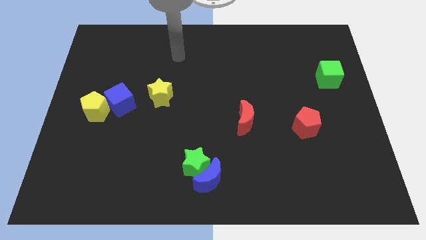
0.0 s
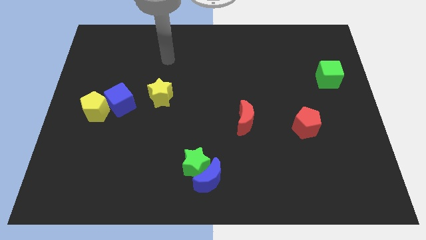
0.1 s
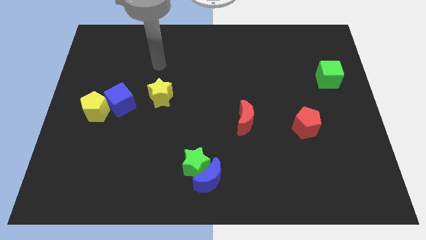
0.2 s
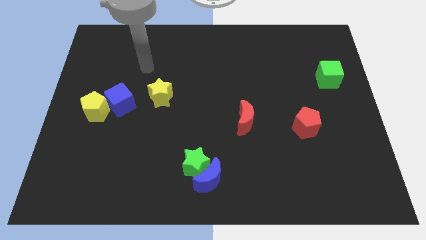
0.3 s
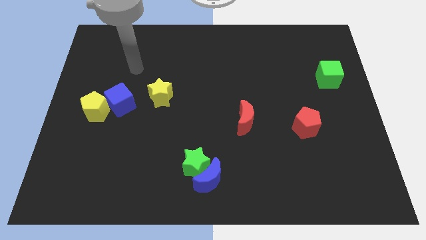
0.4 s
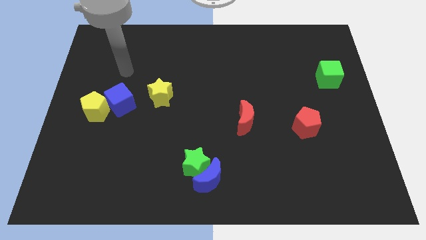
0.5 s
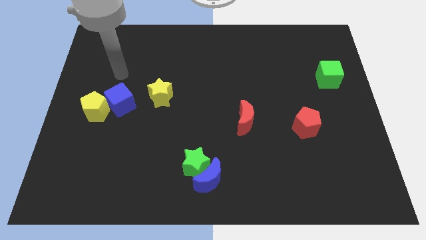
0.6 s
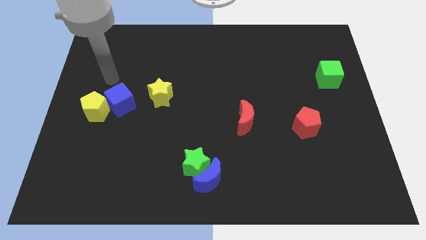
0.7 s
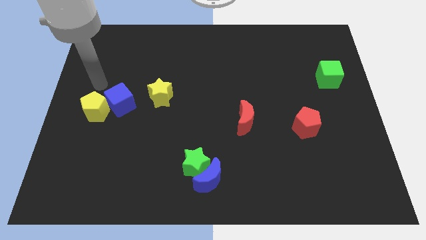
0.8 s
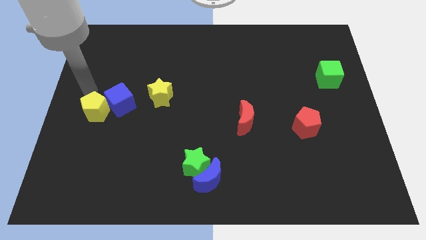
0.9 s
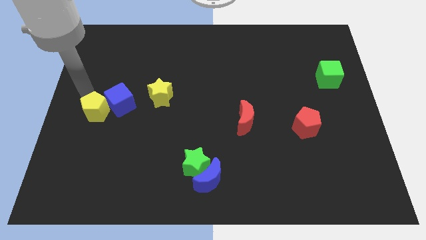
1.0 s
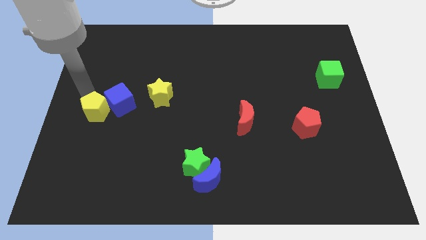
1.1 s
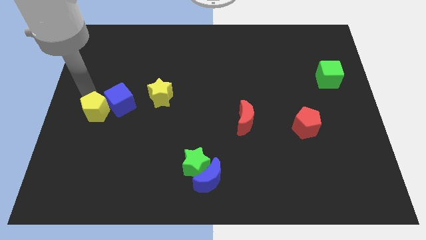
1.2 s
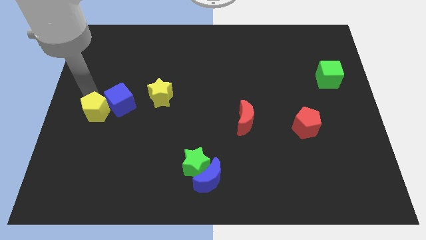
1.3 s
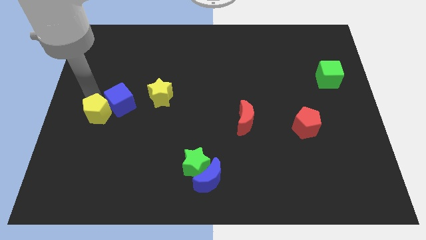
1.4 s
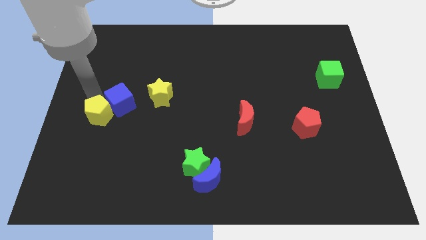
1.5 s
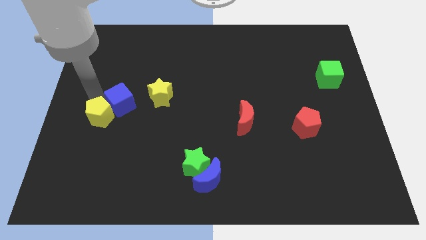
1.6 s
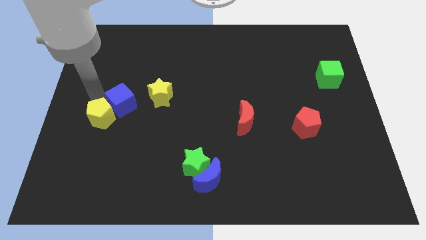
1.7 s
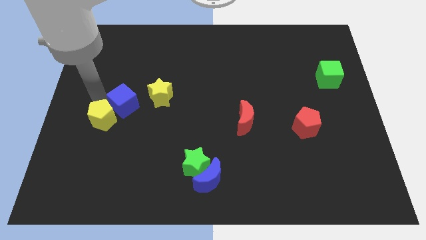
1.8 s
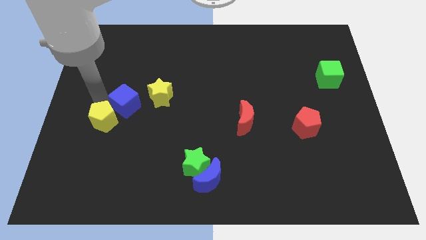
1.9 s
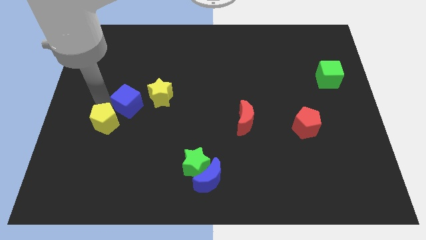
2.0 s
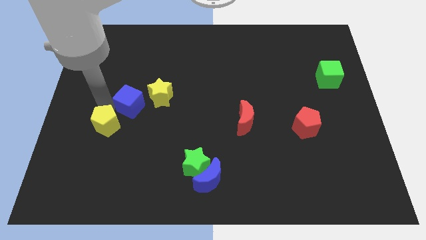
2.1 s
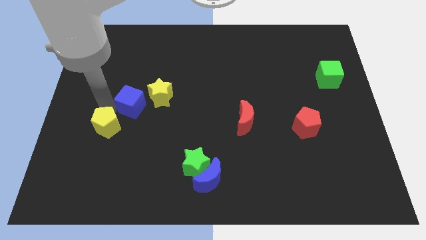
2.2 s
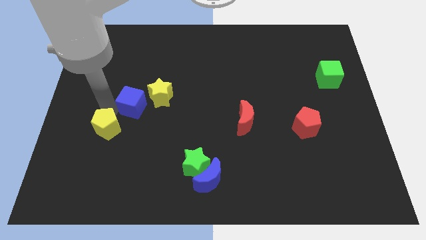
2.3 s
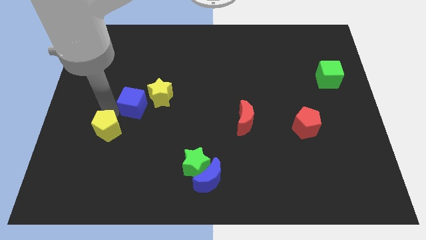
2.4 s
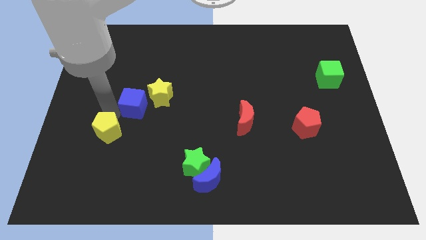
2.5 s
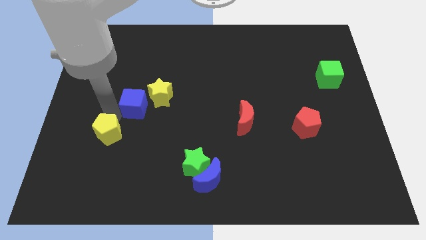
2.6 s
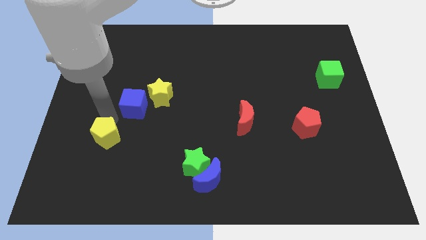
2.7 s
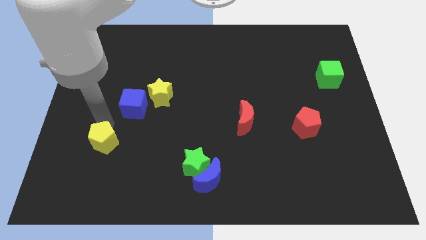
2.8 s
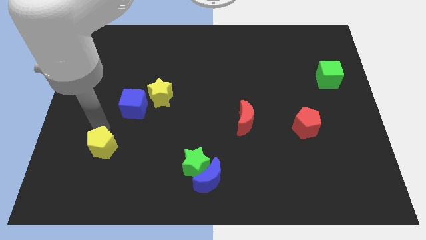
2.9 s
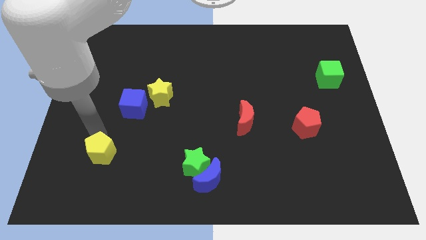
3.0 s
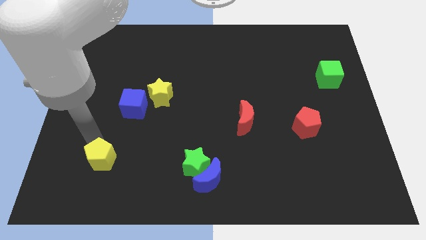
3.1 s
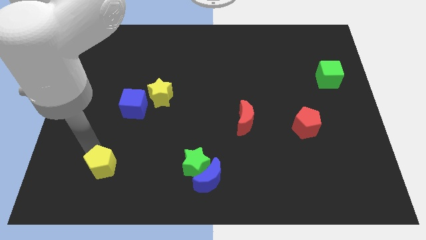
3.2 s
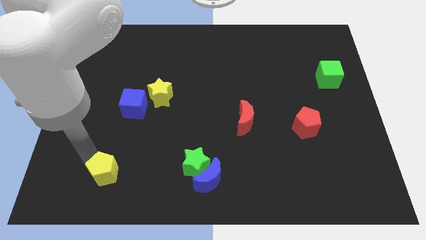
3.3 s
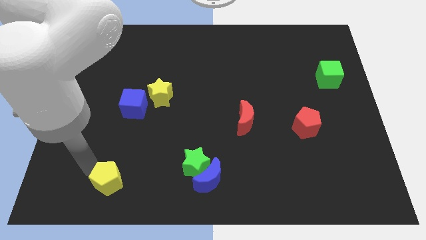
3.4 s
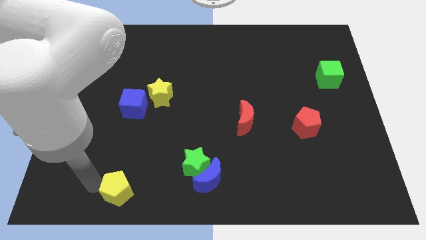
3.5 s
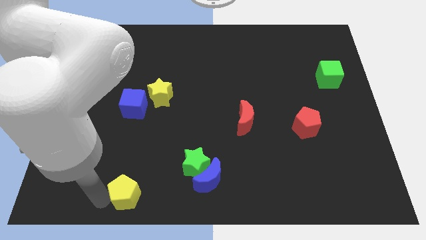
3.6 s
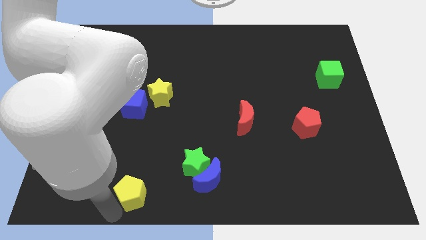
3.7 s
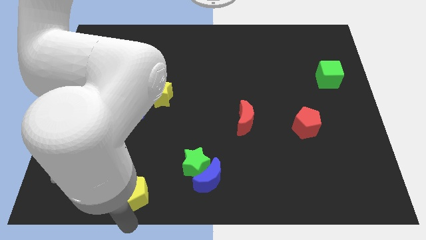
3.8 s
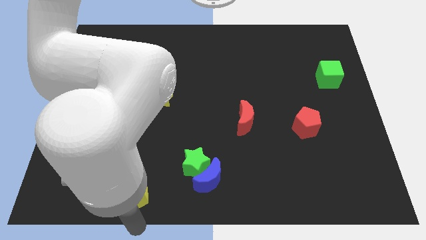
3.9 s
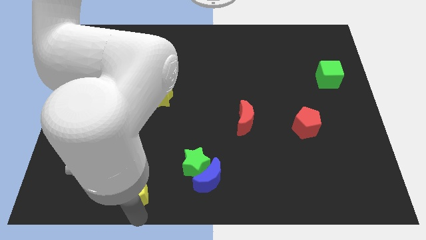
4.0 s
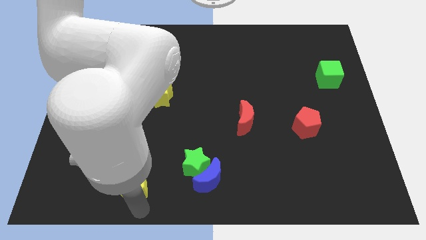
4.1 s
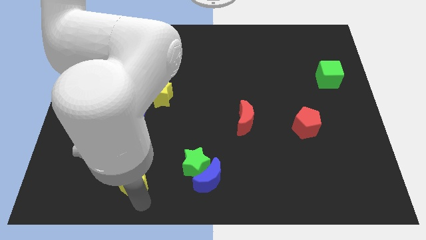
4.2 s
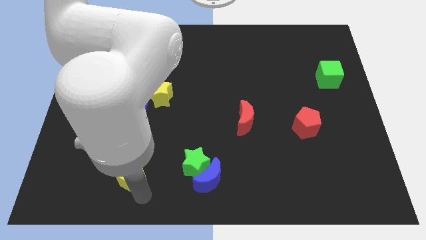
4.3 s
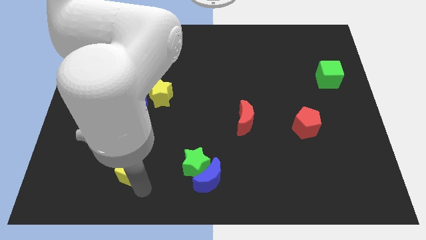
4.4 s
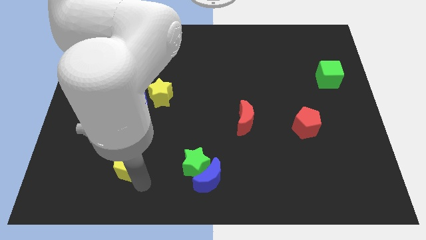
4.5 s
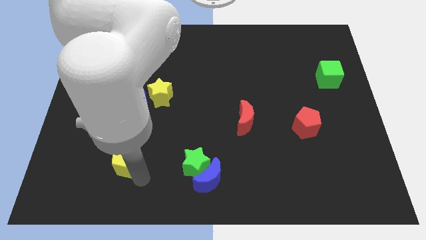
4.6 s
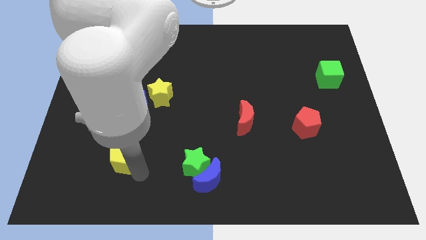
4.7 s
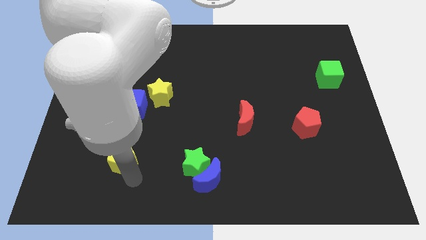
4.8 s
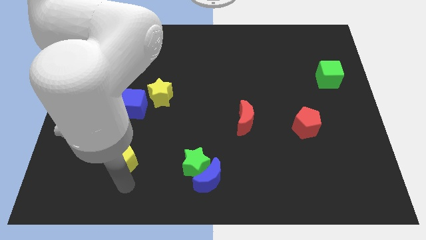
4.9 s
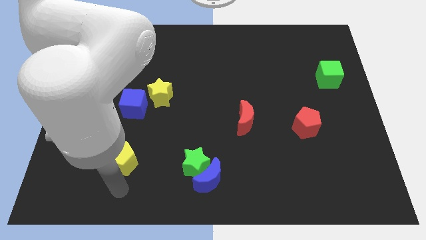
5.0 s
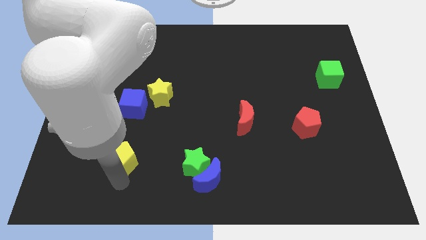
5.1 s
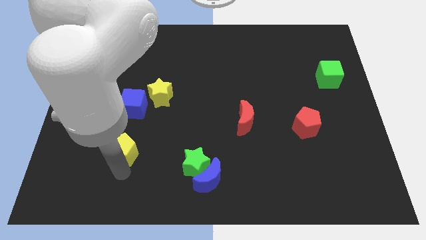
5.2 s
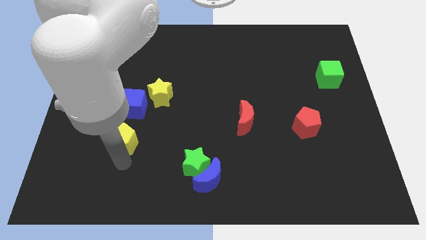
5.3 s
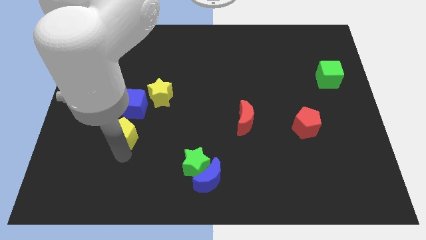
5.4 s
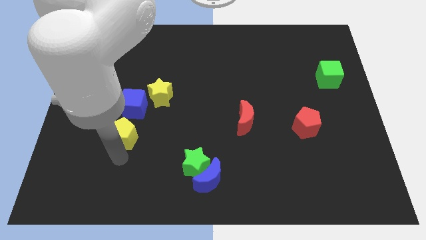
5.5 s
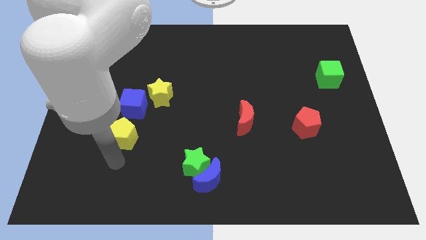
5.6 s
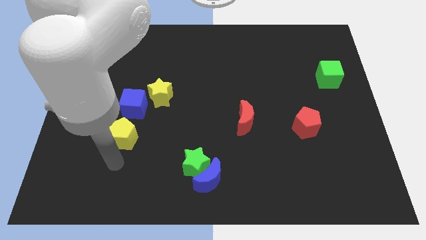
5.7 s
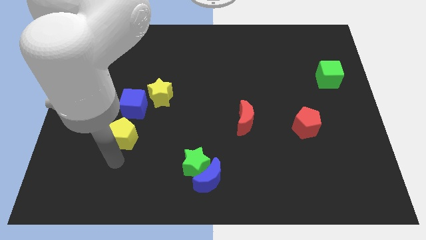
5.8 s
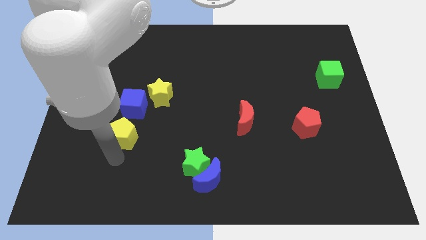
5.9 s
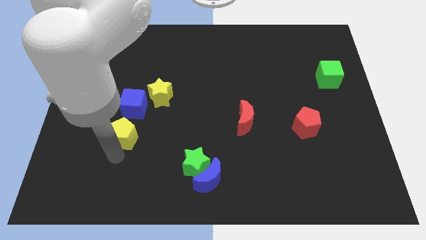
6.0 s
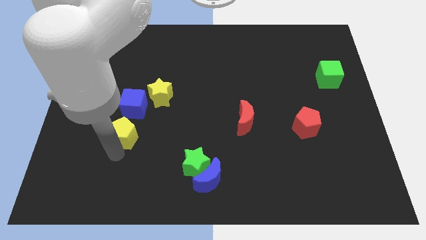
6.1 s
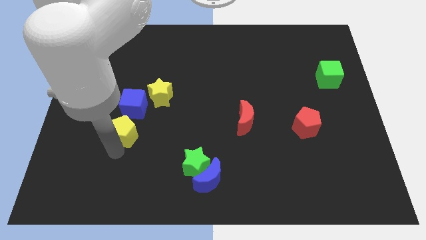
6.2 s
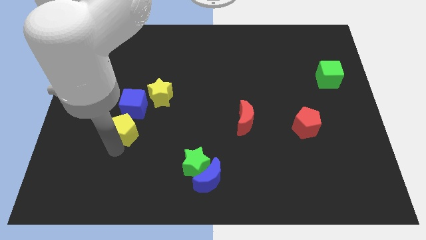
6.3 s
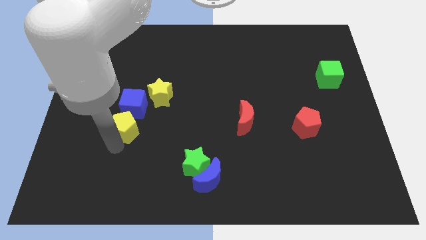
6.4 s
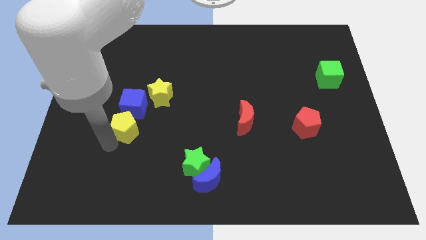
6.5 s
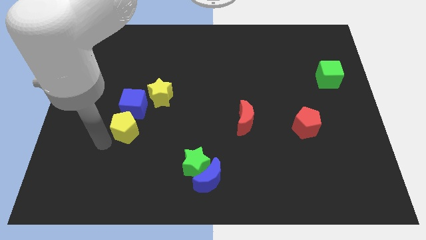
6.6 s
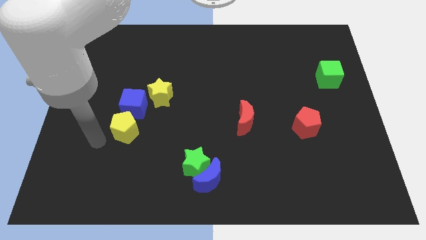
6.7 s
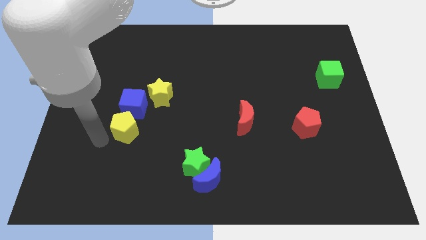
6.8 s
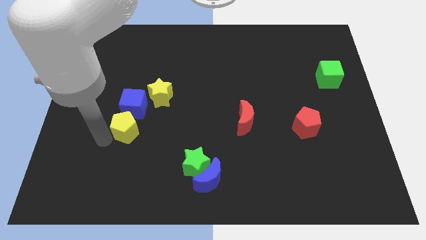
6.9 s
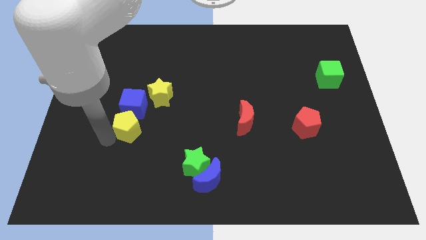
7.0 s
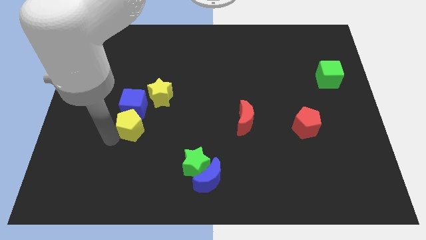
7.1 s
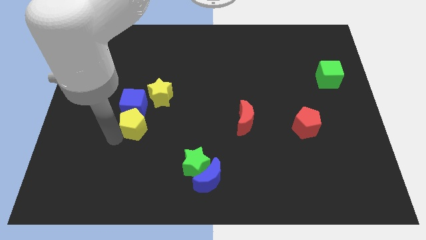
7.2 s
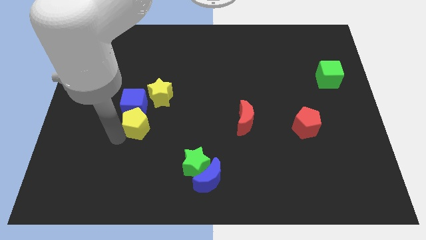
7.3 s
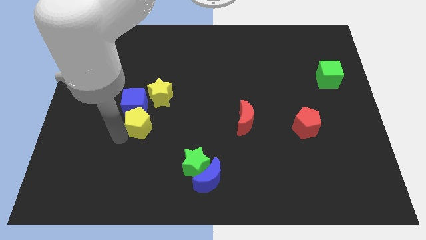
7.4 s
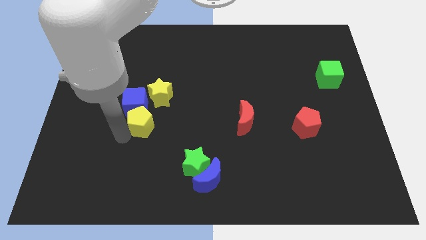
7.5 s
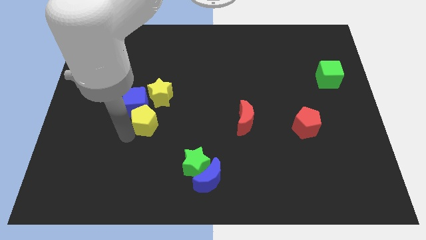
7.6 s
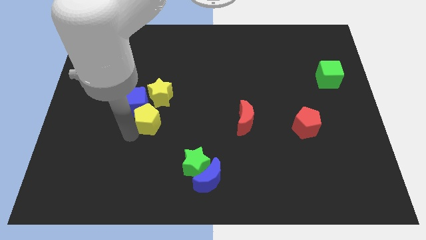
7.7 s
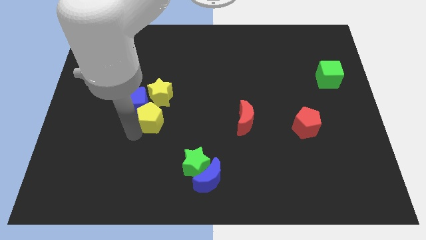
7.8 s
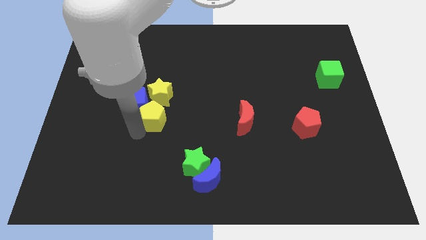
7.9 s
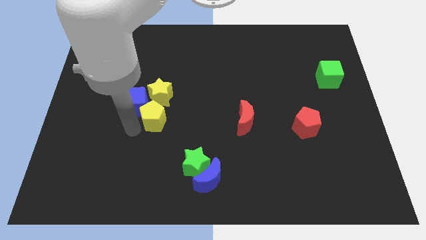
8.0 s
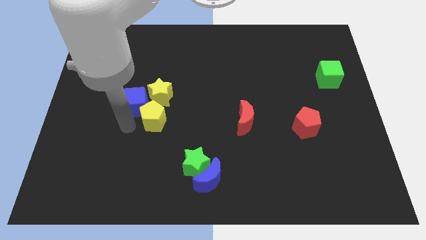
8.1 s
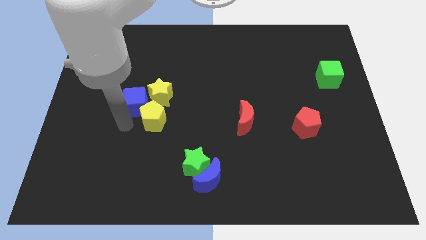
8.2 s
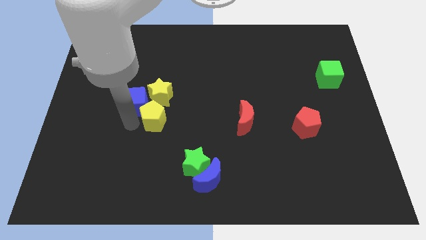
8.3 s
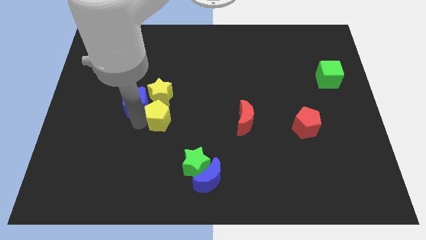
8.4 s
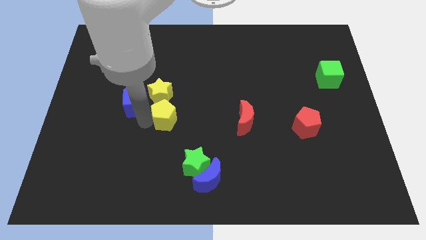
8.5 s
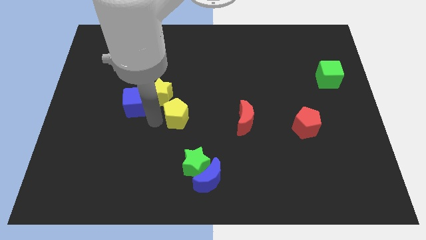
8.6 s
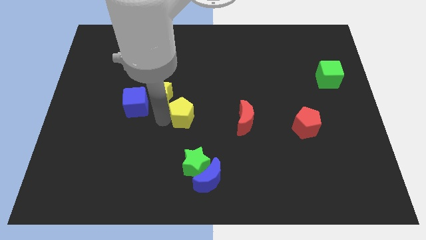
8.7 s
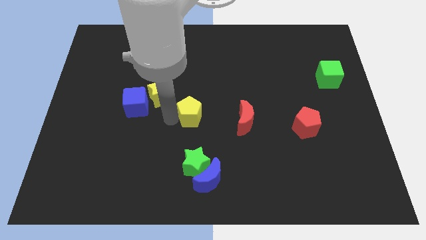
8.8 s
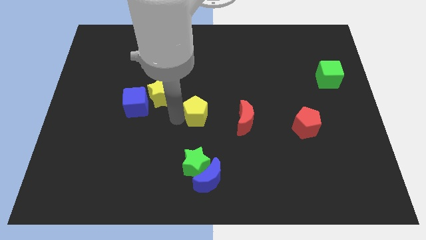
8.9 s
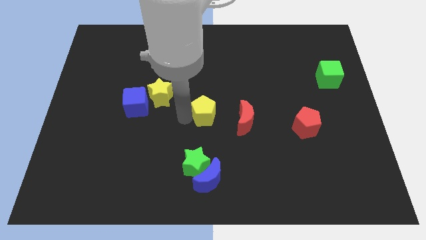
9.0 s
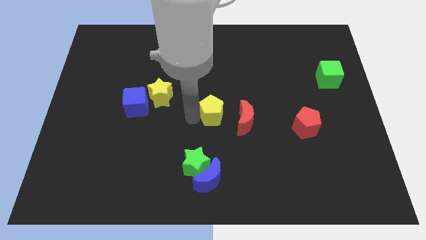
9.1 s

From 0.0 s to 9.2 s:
move the yellow pentagon diagonally up and to the left of the red moon
